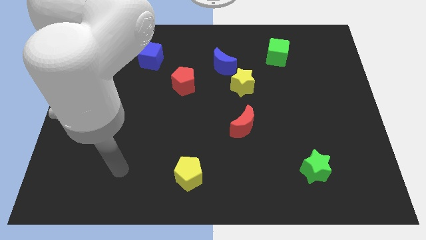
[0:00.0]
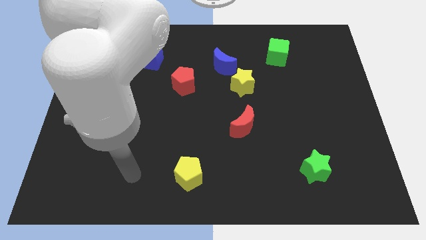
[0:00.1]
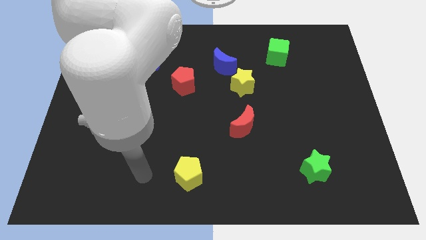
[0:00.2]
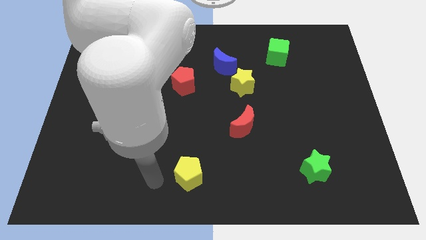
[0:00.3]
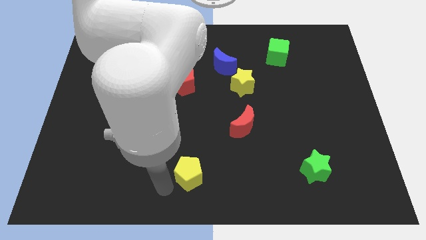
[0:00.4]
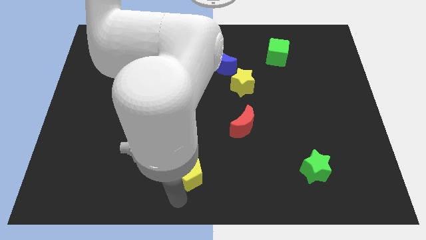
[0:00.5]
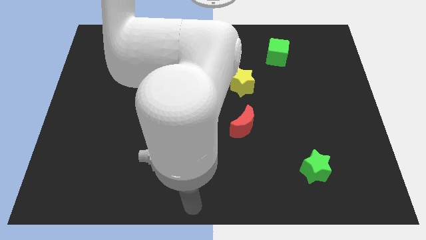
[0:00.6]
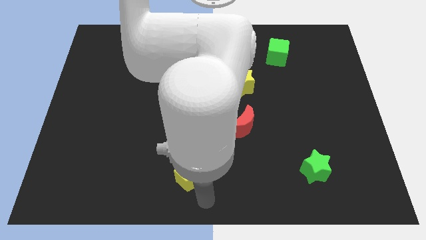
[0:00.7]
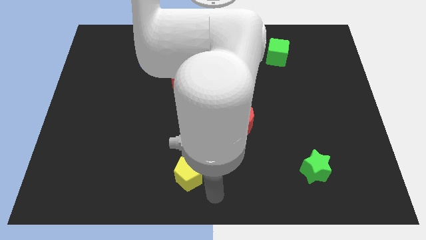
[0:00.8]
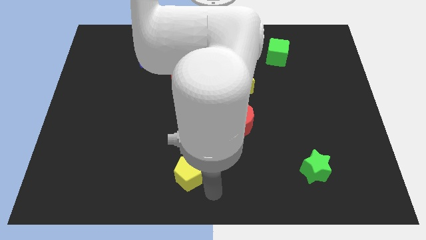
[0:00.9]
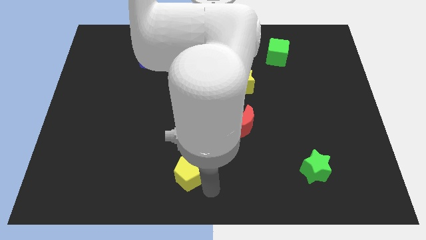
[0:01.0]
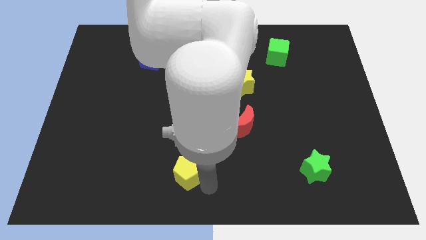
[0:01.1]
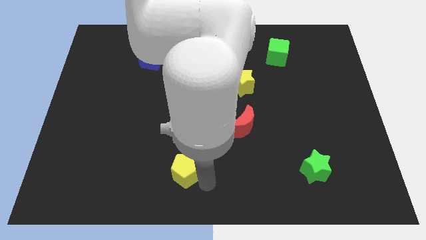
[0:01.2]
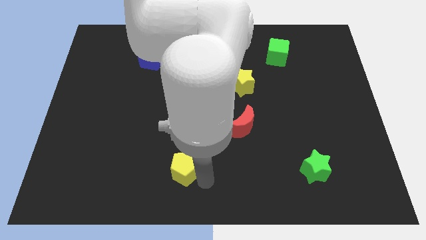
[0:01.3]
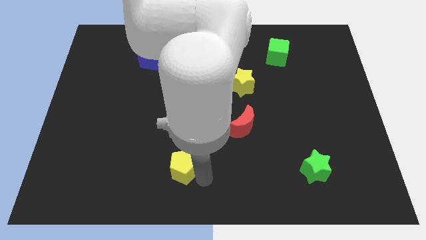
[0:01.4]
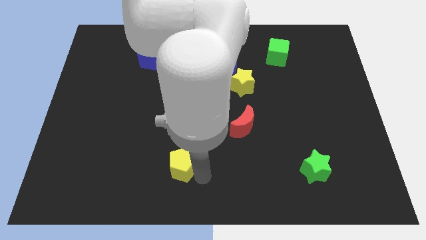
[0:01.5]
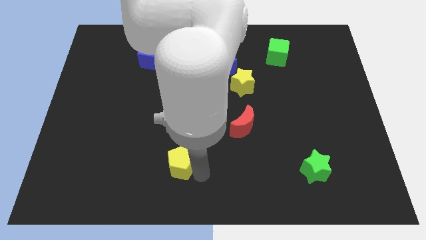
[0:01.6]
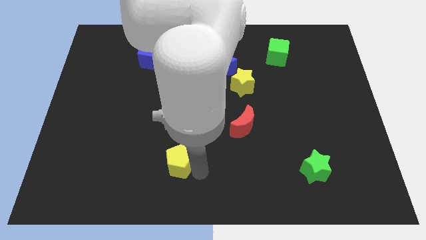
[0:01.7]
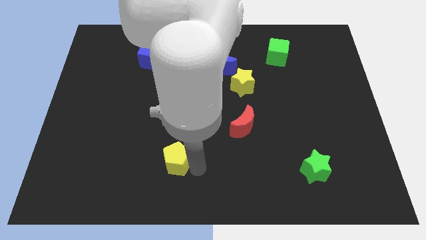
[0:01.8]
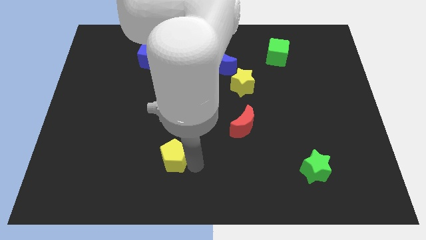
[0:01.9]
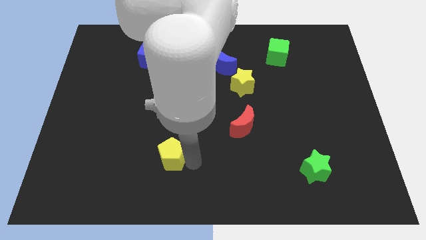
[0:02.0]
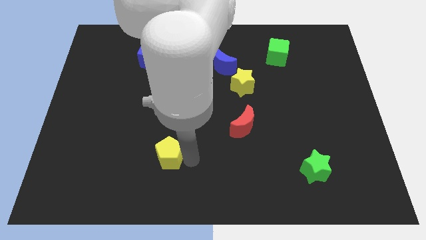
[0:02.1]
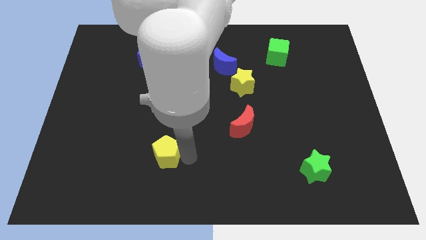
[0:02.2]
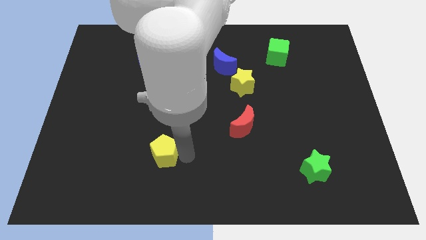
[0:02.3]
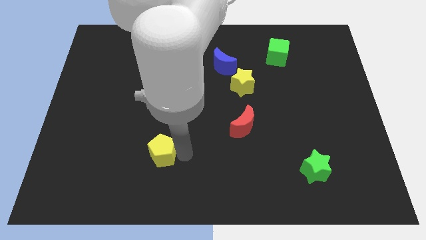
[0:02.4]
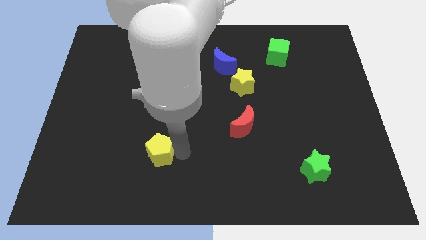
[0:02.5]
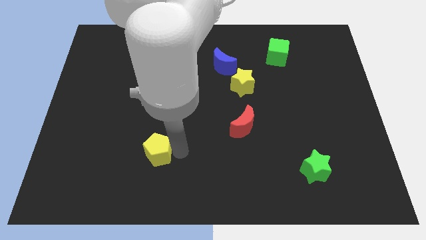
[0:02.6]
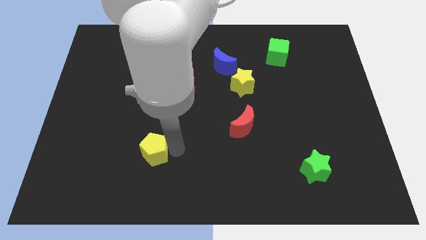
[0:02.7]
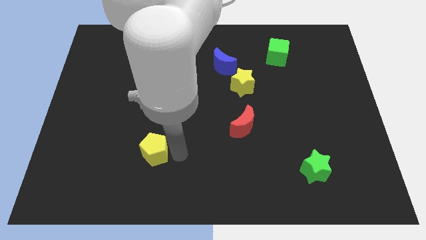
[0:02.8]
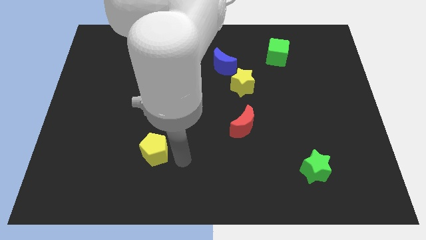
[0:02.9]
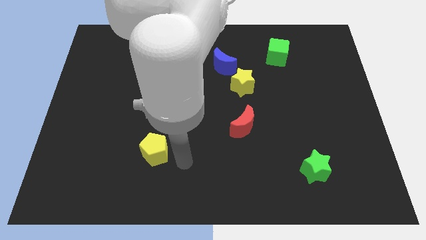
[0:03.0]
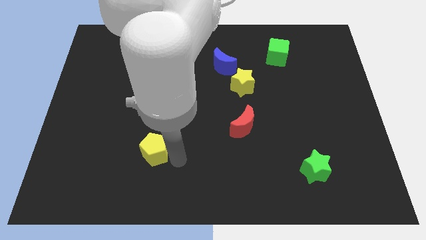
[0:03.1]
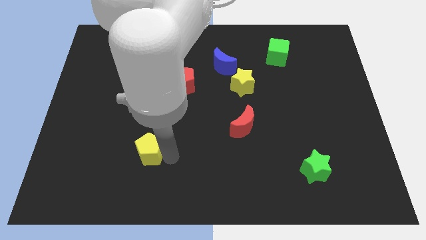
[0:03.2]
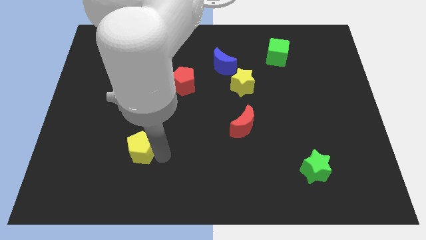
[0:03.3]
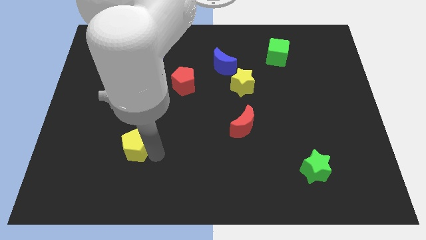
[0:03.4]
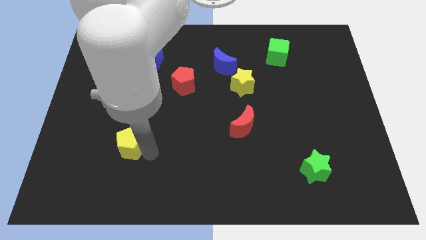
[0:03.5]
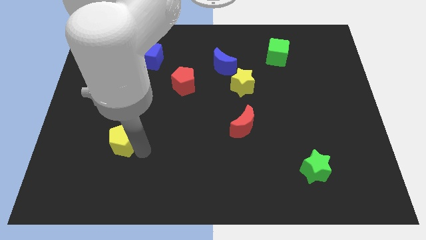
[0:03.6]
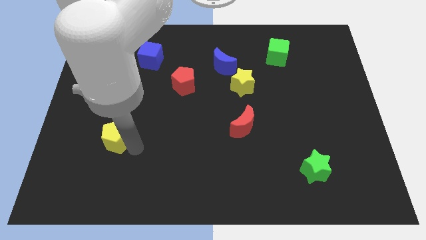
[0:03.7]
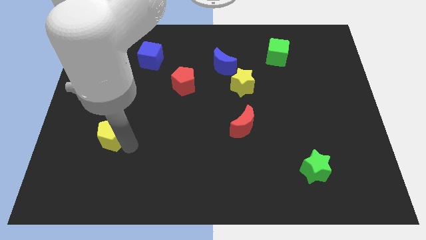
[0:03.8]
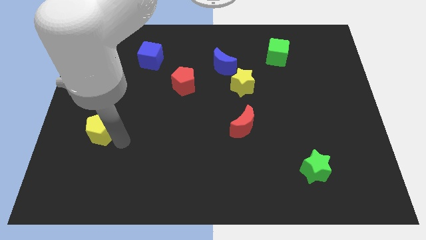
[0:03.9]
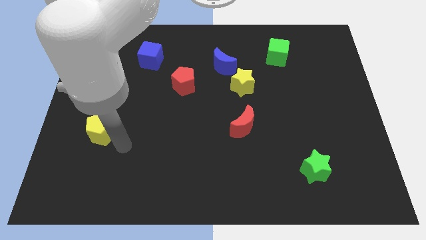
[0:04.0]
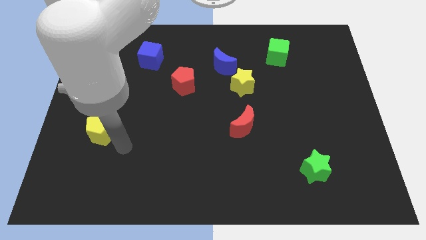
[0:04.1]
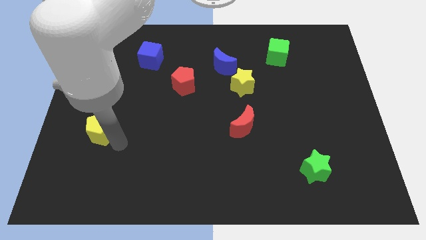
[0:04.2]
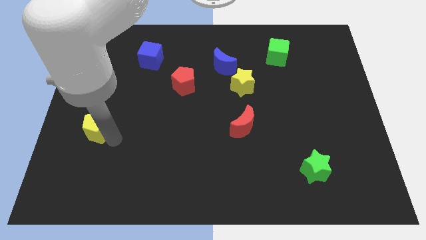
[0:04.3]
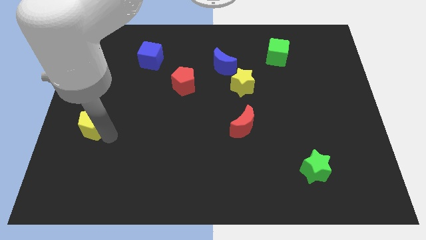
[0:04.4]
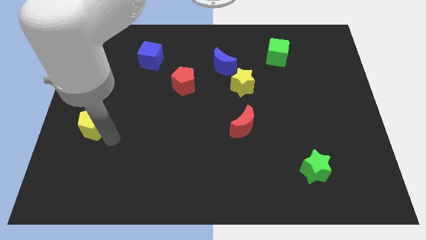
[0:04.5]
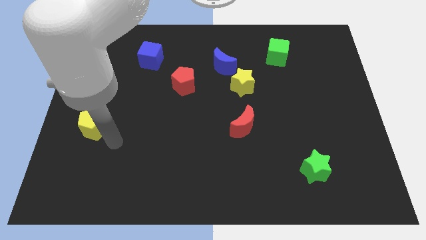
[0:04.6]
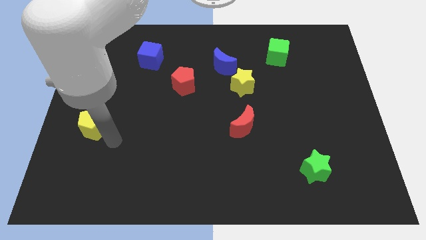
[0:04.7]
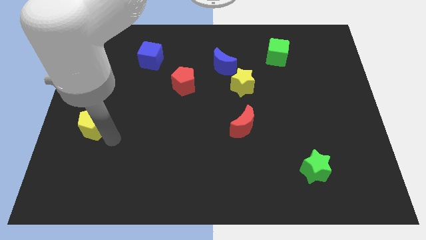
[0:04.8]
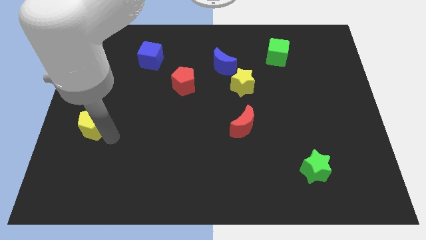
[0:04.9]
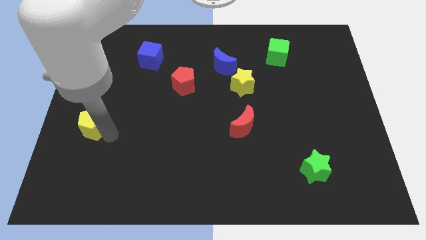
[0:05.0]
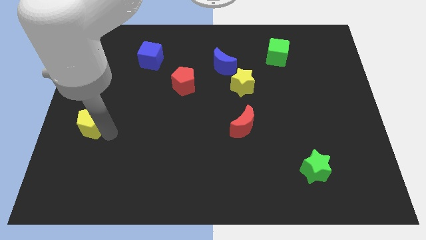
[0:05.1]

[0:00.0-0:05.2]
put the yellow pentagon to the left side
